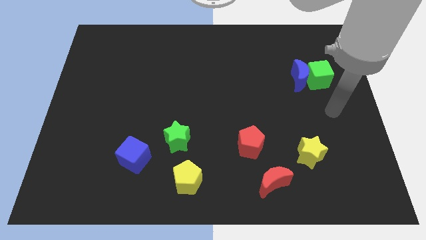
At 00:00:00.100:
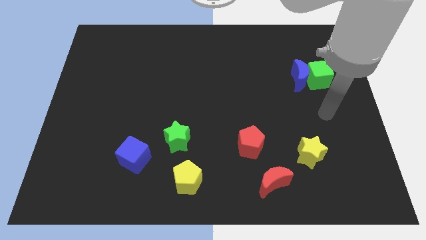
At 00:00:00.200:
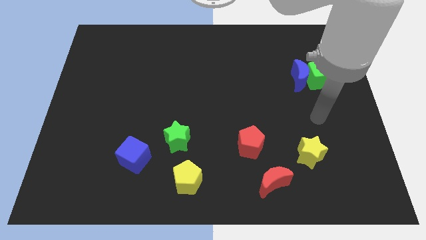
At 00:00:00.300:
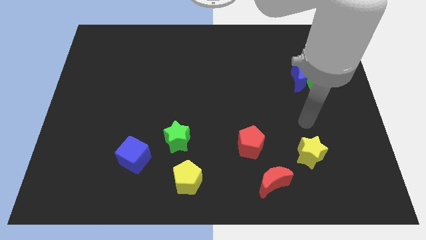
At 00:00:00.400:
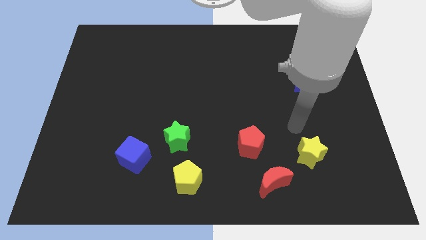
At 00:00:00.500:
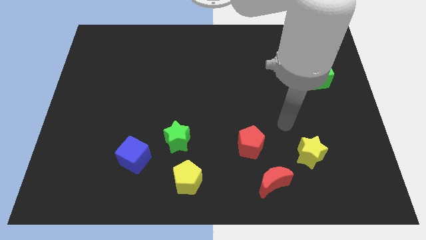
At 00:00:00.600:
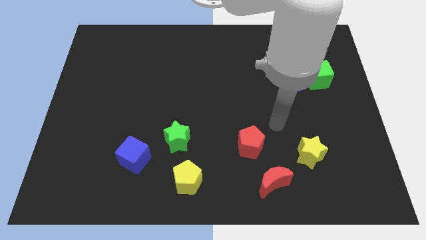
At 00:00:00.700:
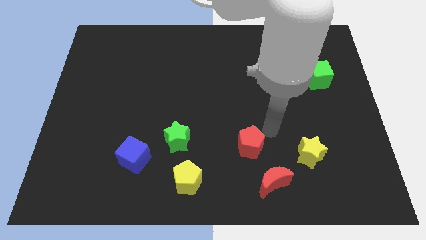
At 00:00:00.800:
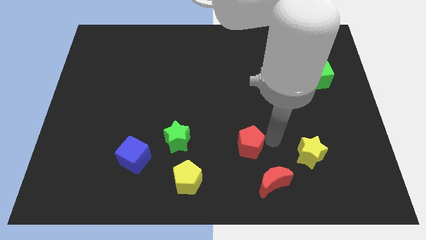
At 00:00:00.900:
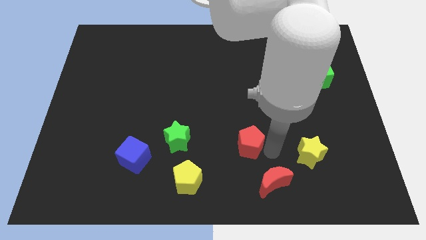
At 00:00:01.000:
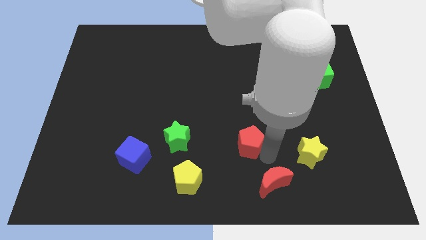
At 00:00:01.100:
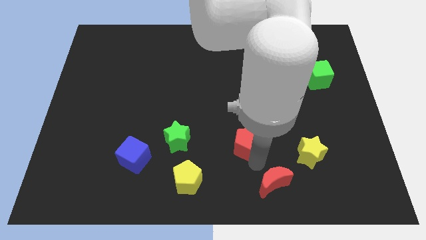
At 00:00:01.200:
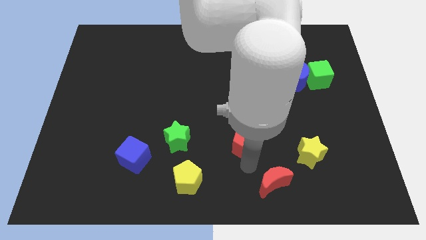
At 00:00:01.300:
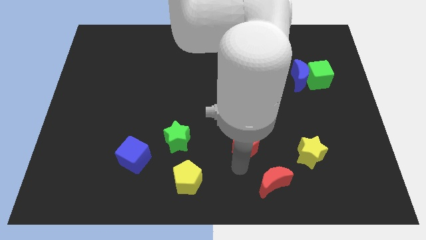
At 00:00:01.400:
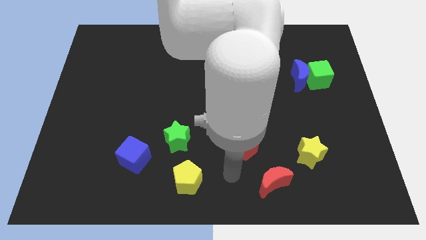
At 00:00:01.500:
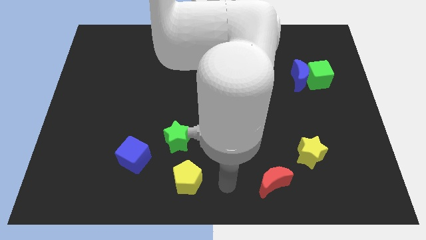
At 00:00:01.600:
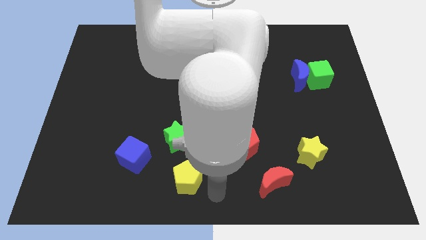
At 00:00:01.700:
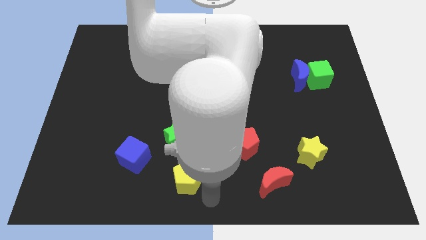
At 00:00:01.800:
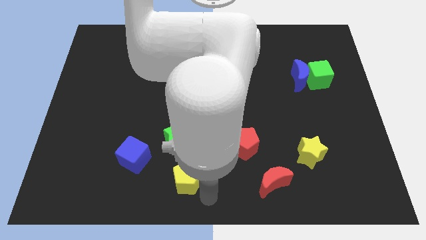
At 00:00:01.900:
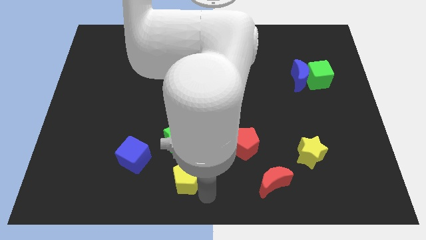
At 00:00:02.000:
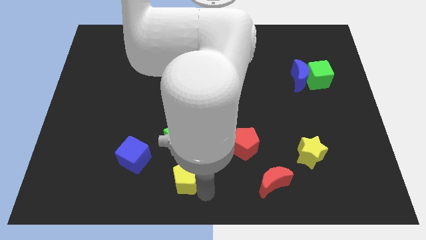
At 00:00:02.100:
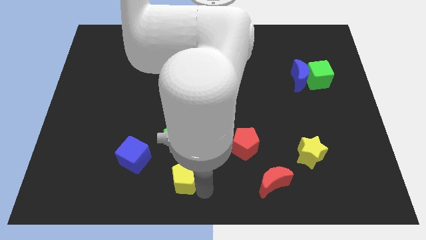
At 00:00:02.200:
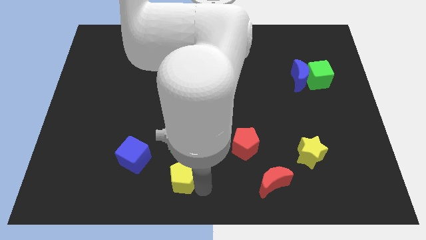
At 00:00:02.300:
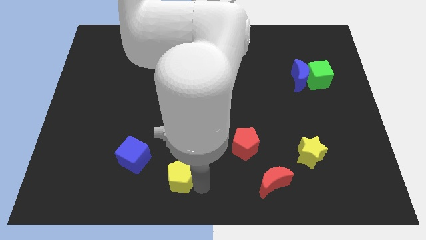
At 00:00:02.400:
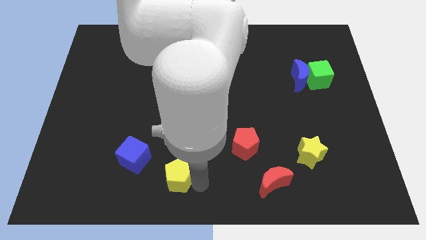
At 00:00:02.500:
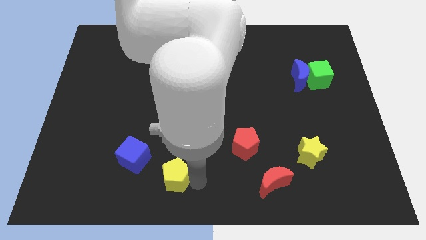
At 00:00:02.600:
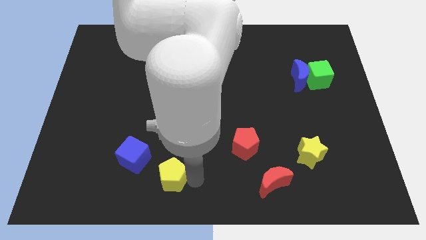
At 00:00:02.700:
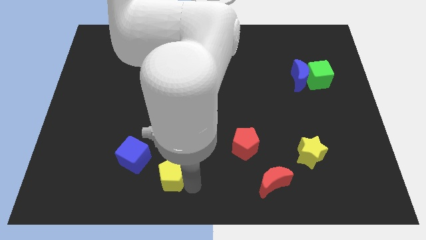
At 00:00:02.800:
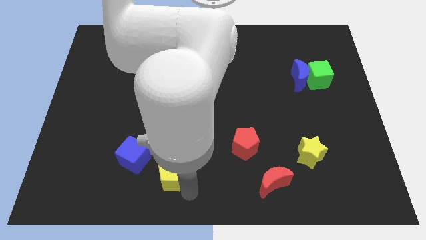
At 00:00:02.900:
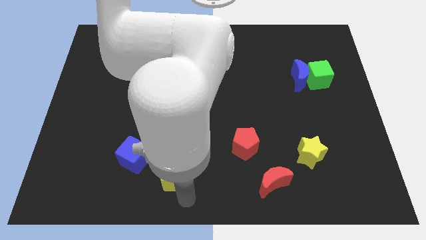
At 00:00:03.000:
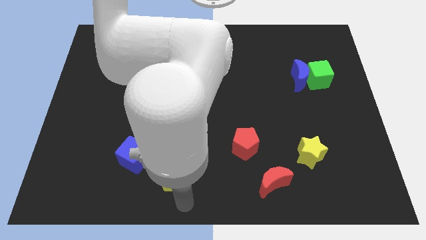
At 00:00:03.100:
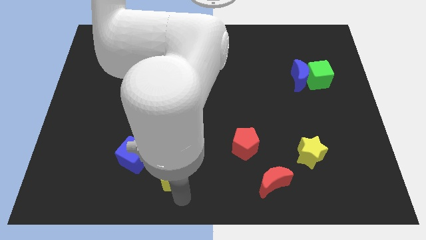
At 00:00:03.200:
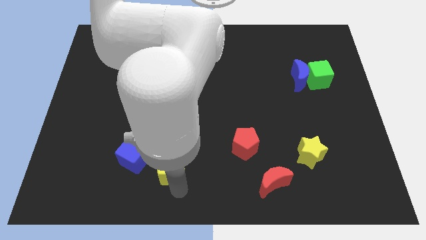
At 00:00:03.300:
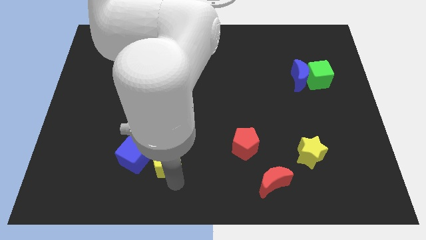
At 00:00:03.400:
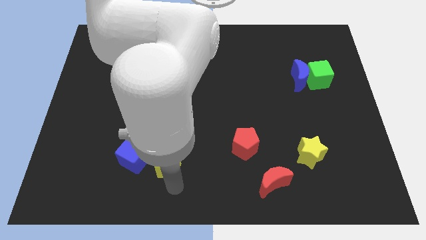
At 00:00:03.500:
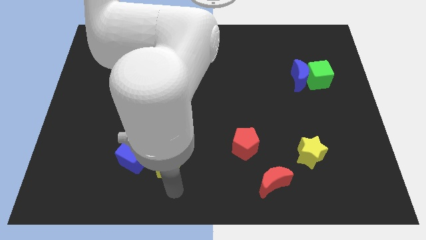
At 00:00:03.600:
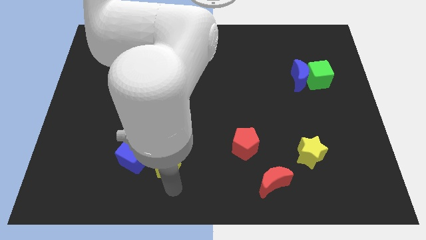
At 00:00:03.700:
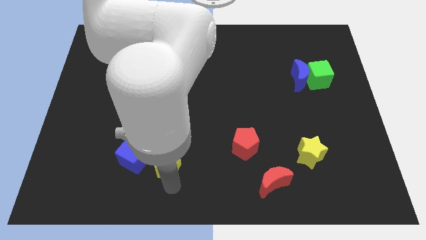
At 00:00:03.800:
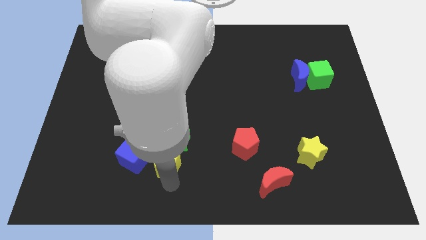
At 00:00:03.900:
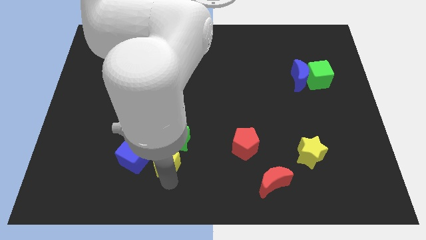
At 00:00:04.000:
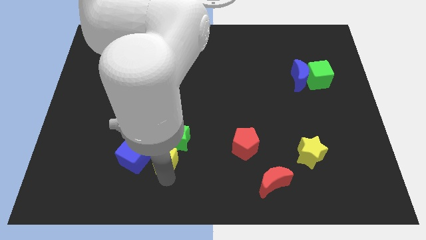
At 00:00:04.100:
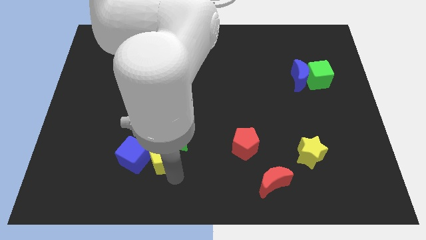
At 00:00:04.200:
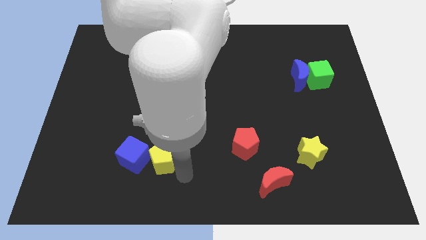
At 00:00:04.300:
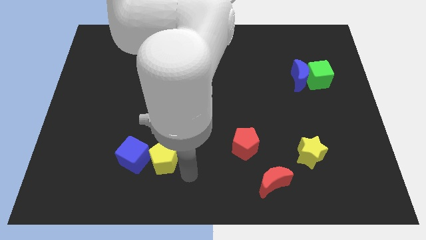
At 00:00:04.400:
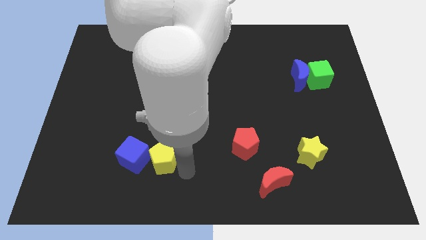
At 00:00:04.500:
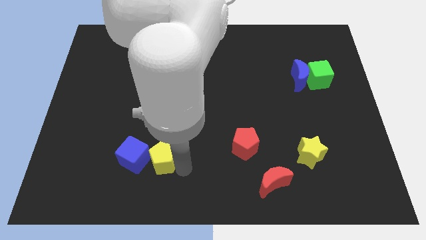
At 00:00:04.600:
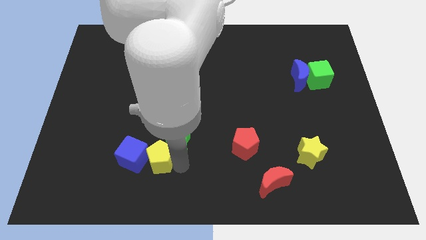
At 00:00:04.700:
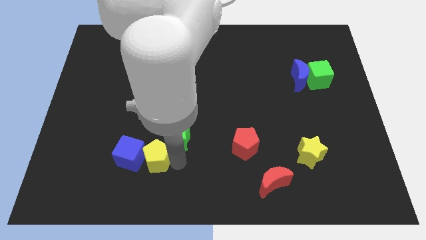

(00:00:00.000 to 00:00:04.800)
move the yellow pentagon left of the green star

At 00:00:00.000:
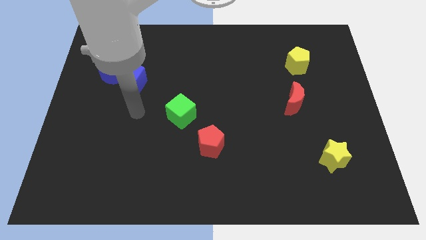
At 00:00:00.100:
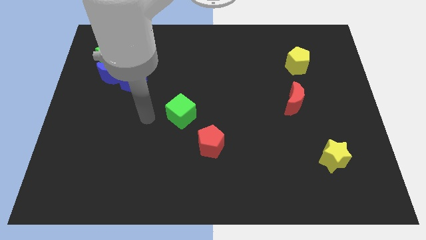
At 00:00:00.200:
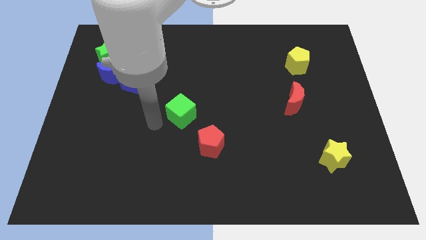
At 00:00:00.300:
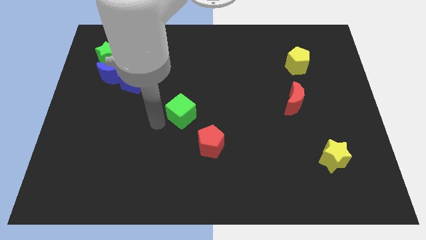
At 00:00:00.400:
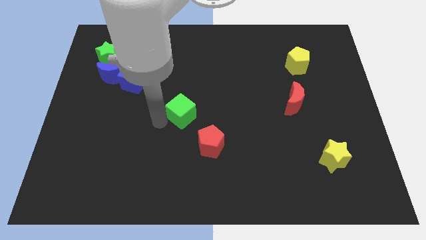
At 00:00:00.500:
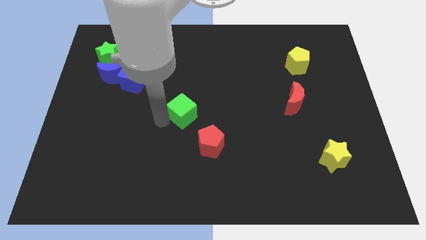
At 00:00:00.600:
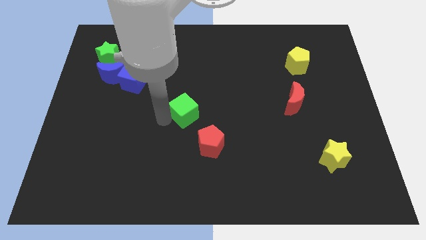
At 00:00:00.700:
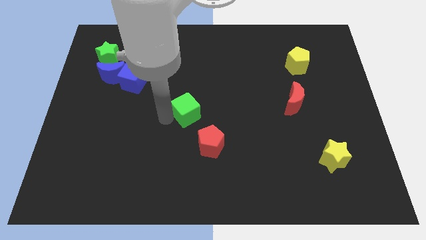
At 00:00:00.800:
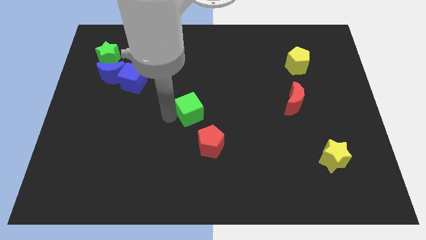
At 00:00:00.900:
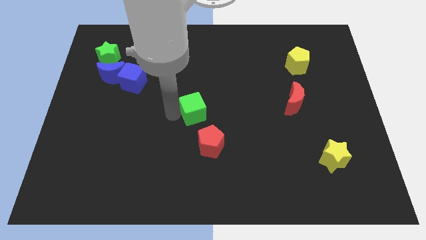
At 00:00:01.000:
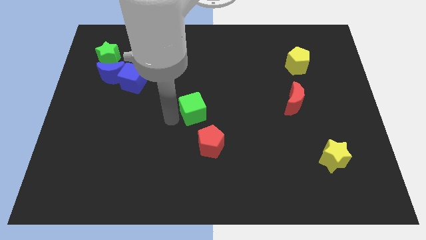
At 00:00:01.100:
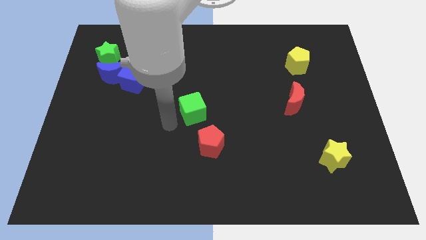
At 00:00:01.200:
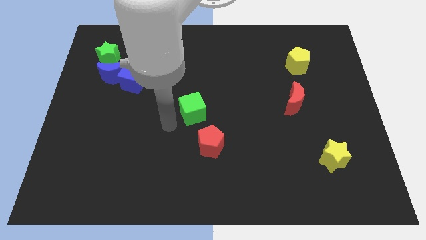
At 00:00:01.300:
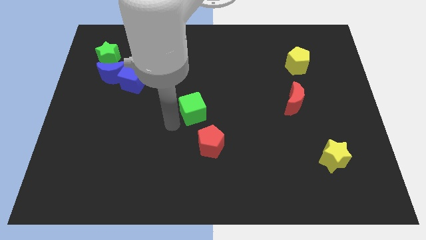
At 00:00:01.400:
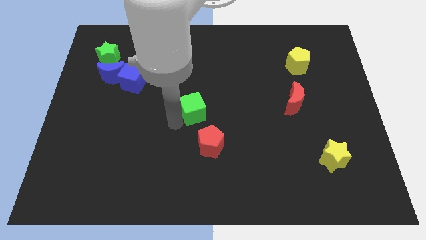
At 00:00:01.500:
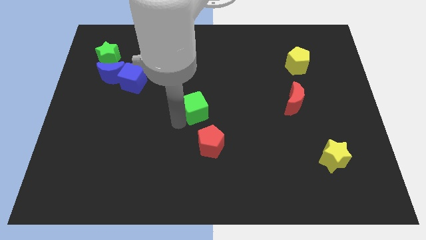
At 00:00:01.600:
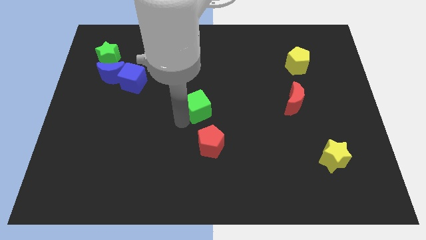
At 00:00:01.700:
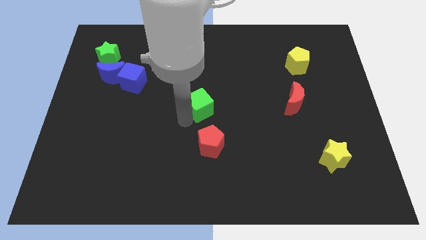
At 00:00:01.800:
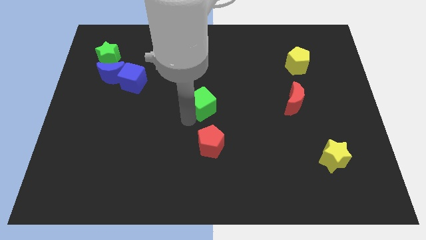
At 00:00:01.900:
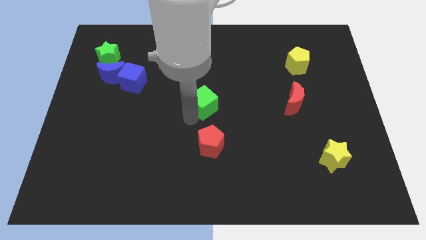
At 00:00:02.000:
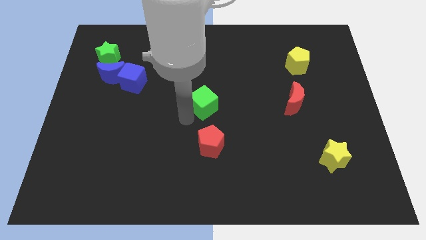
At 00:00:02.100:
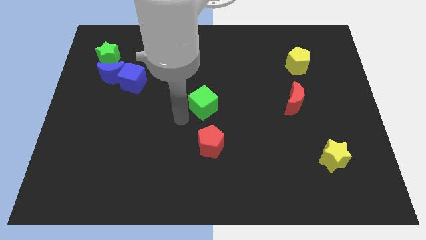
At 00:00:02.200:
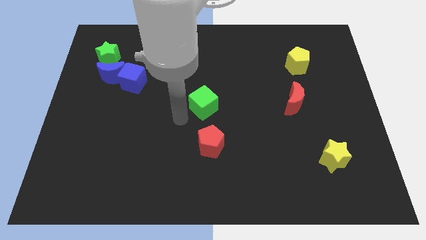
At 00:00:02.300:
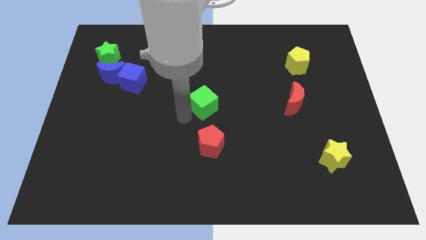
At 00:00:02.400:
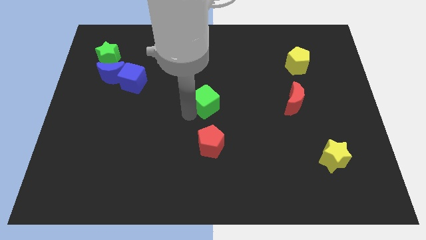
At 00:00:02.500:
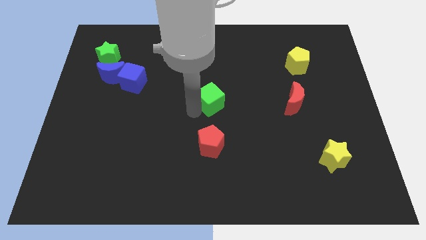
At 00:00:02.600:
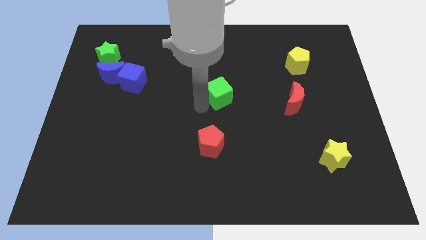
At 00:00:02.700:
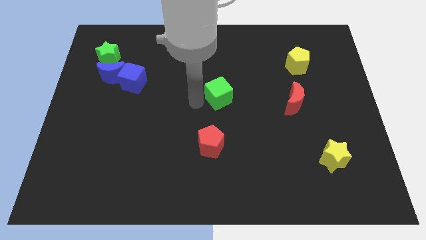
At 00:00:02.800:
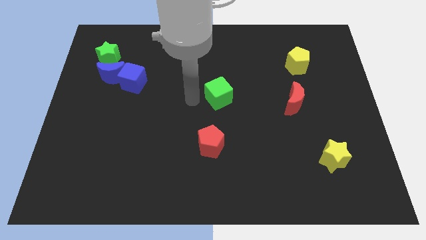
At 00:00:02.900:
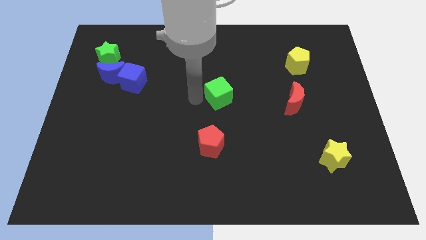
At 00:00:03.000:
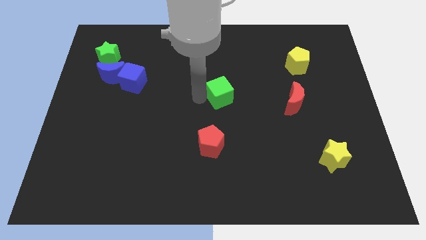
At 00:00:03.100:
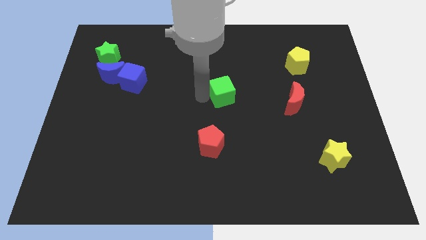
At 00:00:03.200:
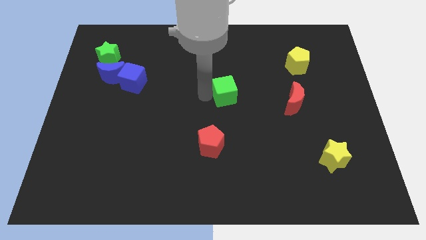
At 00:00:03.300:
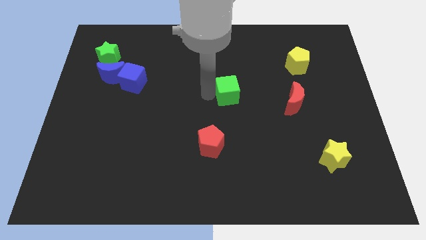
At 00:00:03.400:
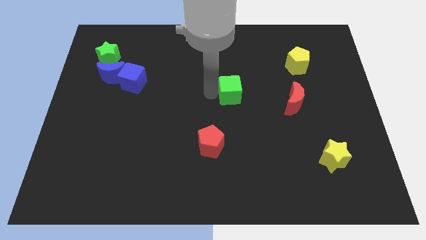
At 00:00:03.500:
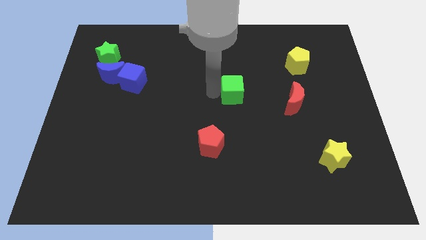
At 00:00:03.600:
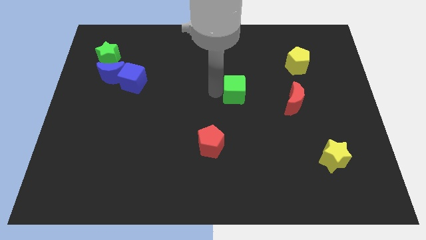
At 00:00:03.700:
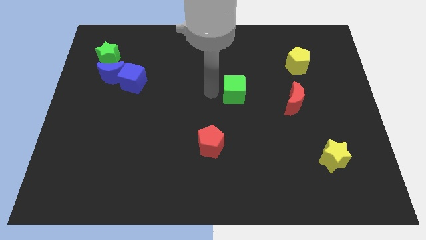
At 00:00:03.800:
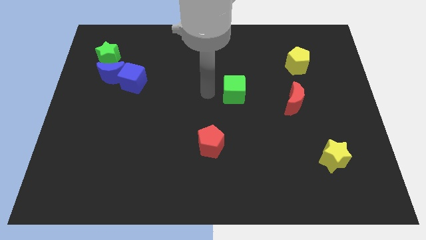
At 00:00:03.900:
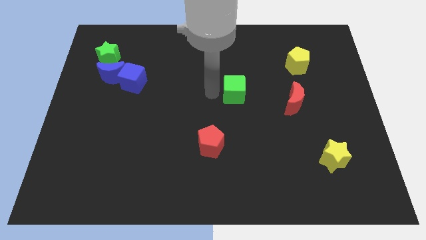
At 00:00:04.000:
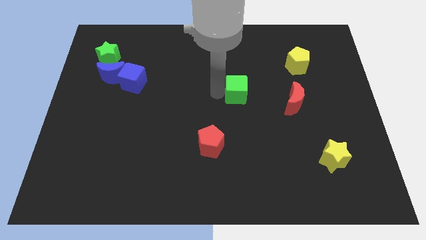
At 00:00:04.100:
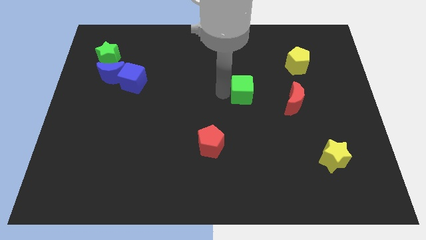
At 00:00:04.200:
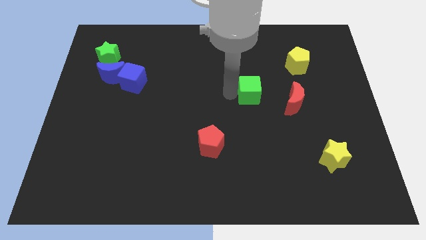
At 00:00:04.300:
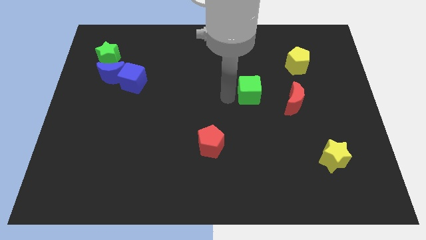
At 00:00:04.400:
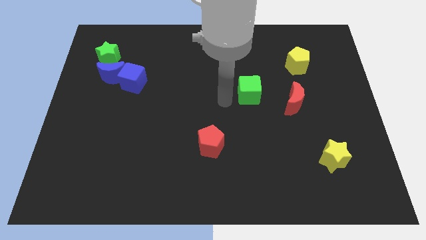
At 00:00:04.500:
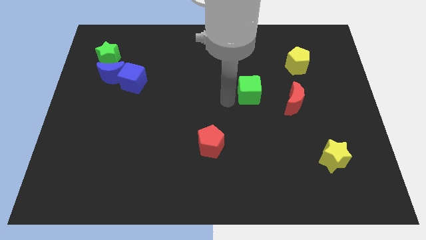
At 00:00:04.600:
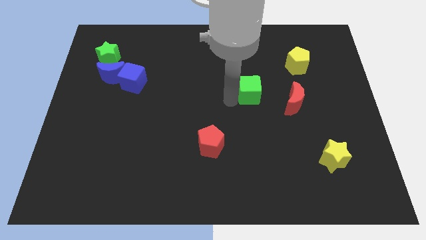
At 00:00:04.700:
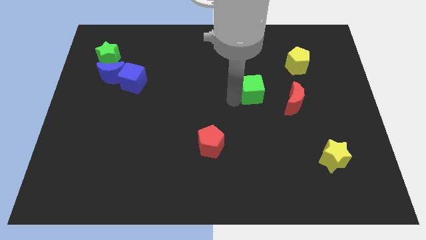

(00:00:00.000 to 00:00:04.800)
move the green cube to the top left of the red moon
